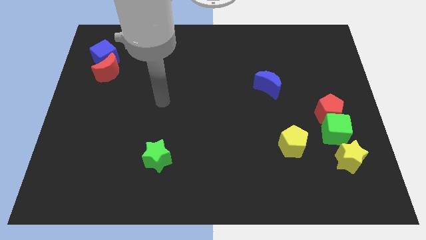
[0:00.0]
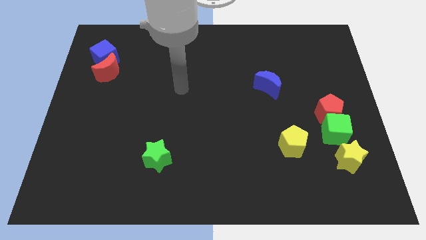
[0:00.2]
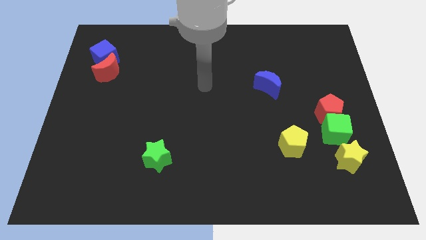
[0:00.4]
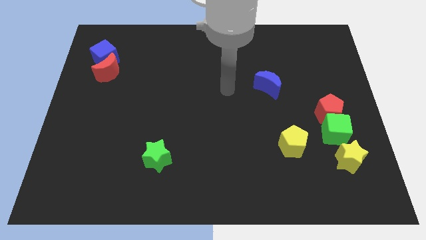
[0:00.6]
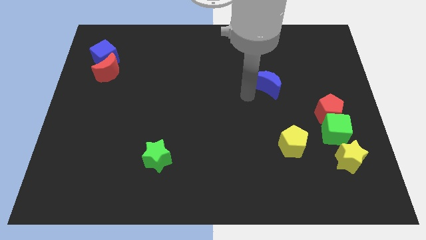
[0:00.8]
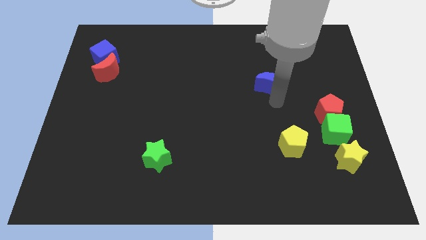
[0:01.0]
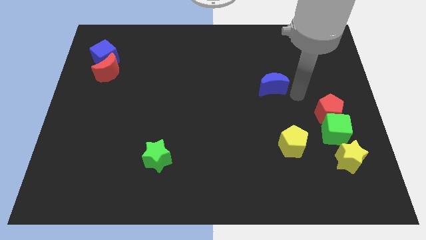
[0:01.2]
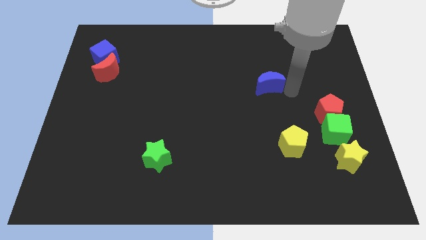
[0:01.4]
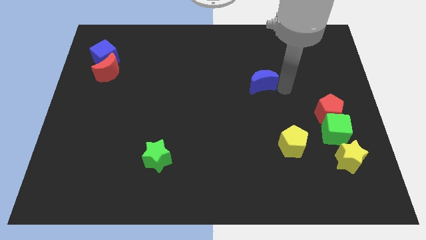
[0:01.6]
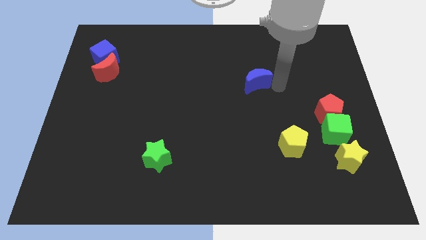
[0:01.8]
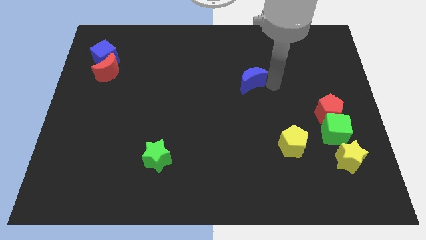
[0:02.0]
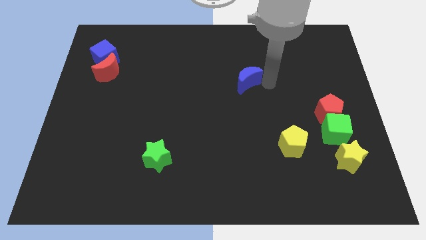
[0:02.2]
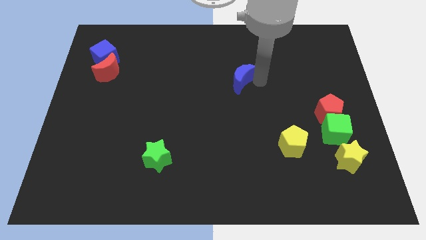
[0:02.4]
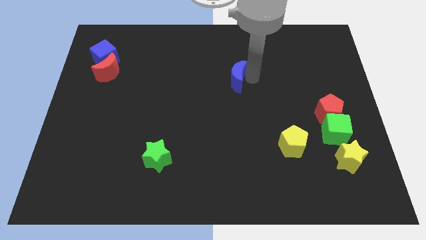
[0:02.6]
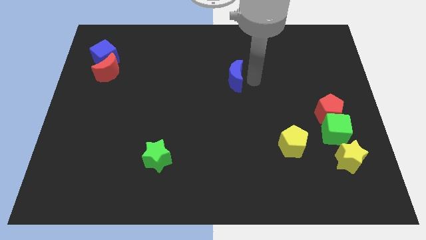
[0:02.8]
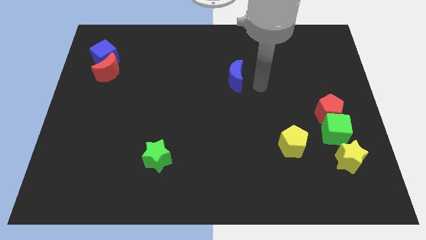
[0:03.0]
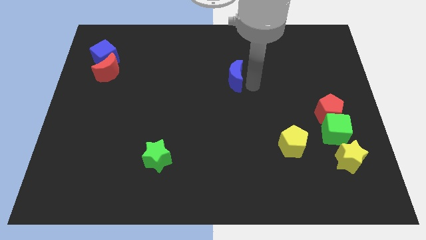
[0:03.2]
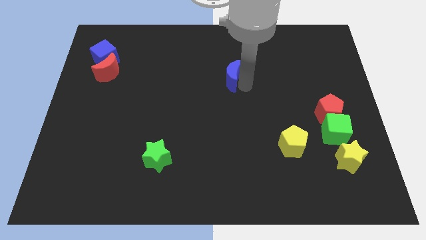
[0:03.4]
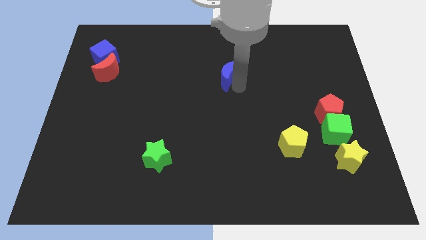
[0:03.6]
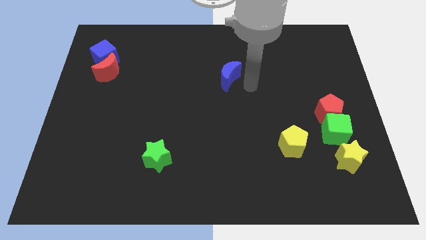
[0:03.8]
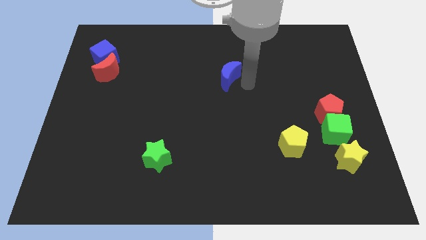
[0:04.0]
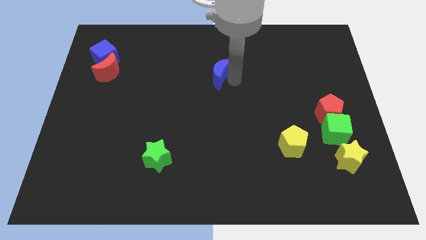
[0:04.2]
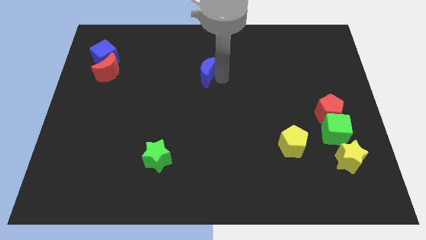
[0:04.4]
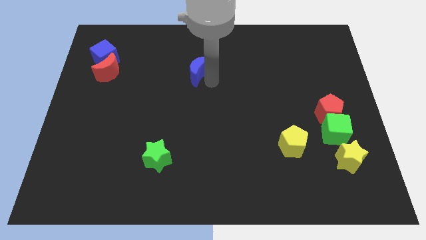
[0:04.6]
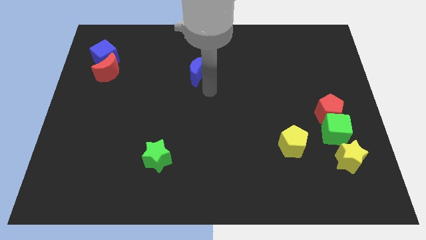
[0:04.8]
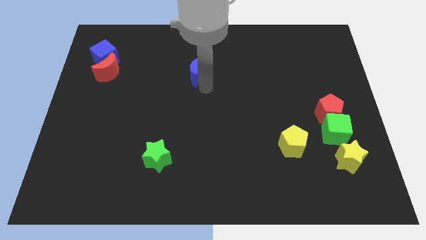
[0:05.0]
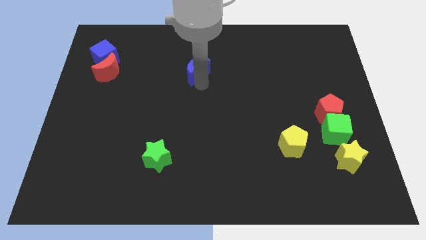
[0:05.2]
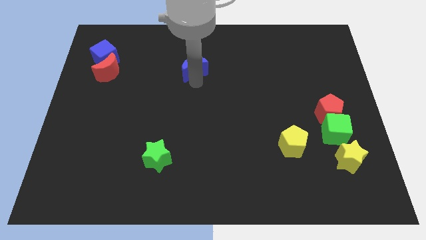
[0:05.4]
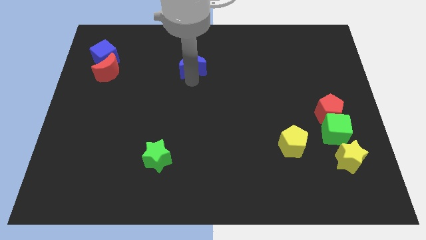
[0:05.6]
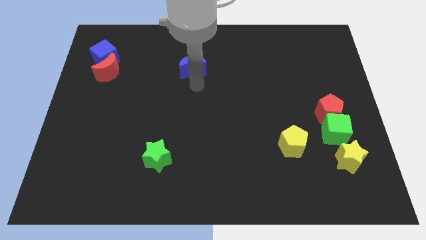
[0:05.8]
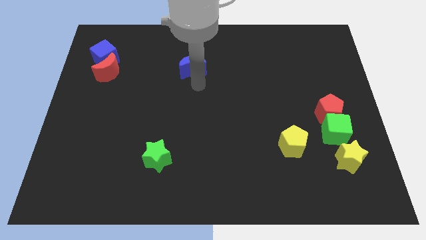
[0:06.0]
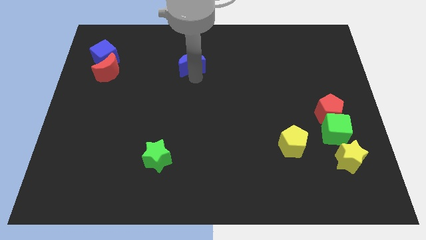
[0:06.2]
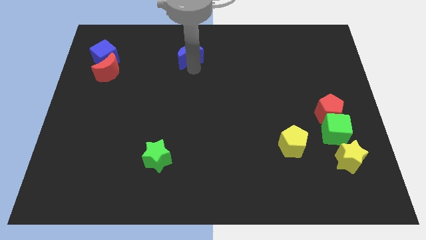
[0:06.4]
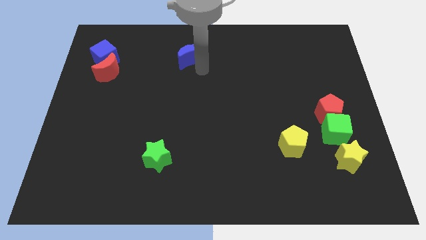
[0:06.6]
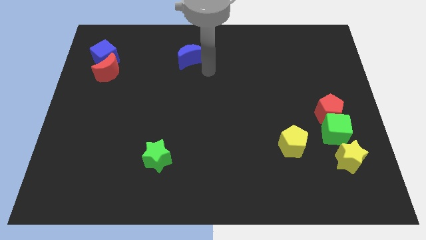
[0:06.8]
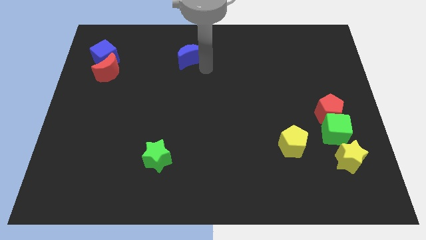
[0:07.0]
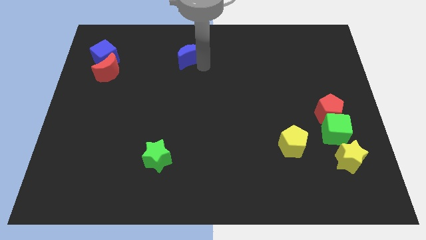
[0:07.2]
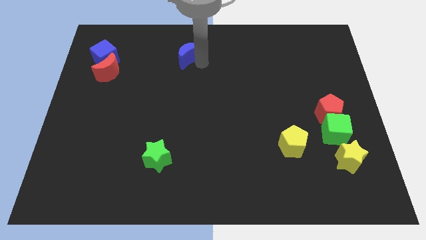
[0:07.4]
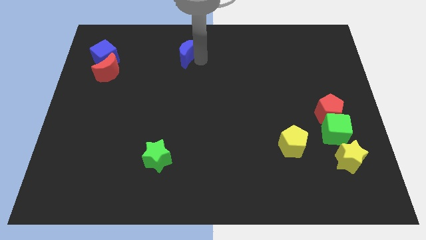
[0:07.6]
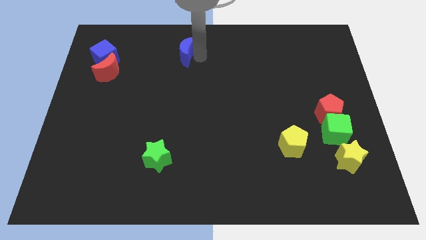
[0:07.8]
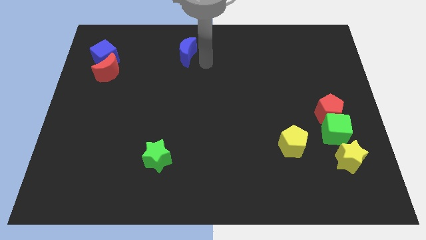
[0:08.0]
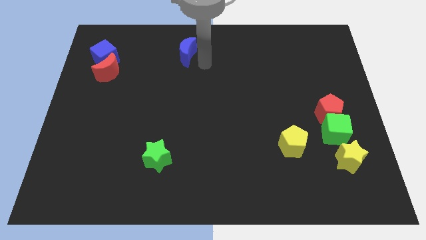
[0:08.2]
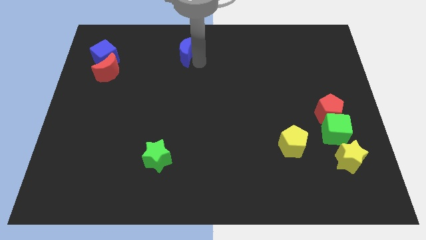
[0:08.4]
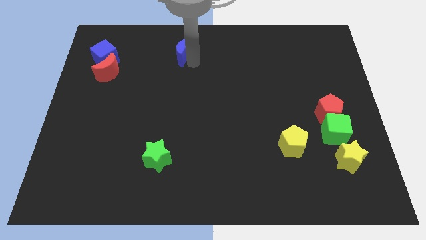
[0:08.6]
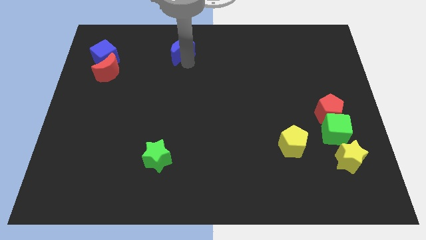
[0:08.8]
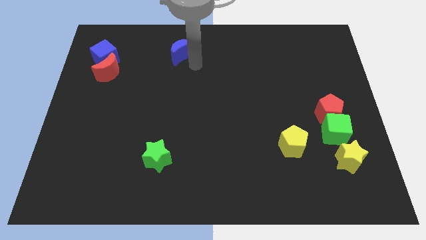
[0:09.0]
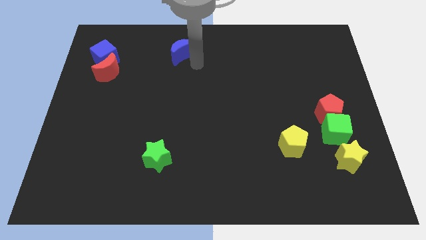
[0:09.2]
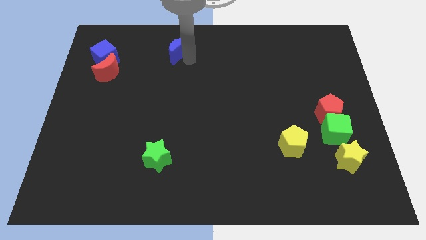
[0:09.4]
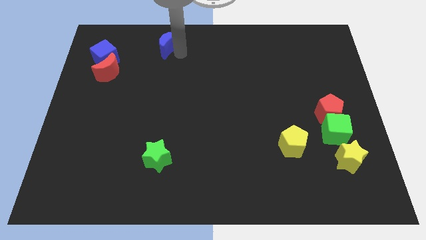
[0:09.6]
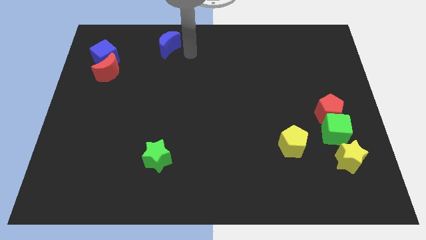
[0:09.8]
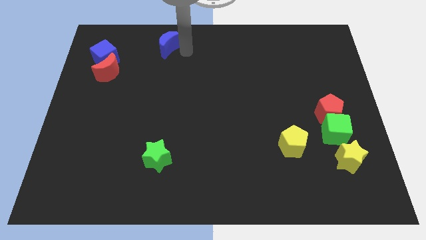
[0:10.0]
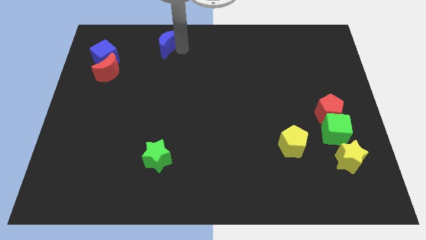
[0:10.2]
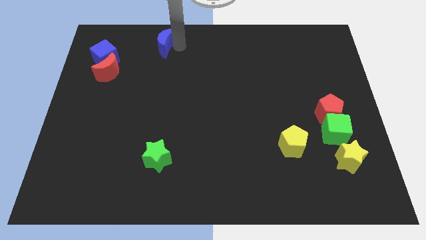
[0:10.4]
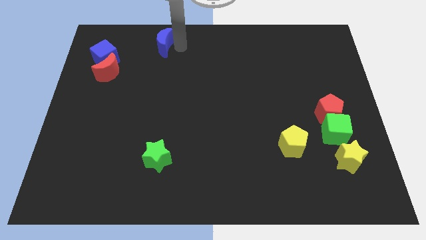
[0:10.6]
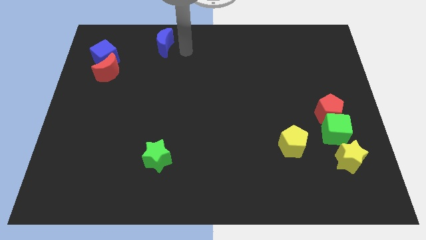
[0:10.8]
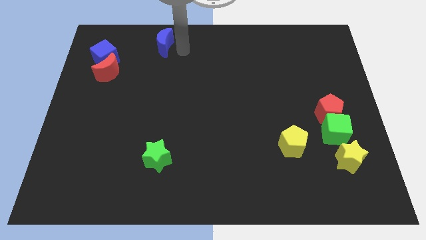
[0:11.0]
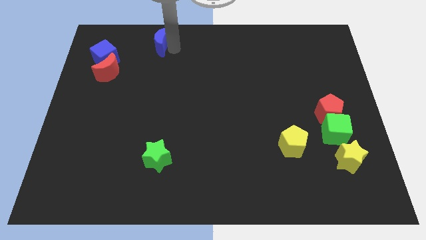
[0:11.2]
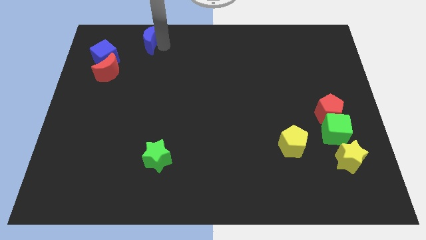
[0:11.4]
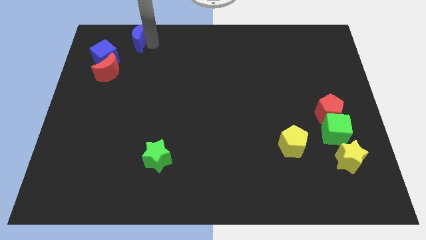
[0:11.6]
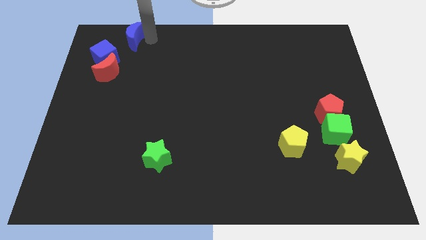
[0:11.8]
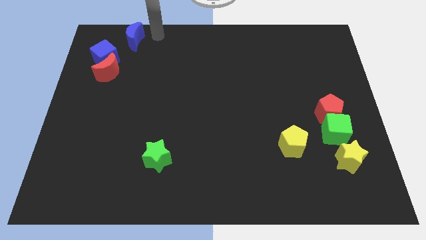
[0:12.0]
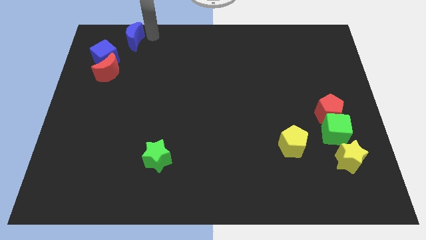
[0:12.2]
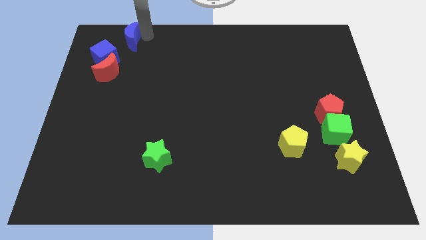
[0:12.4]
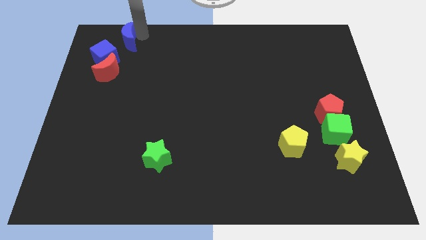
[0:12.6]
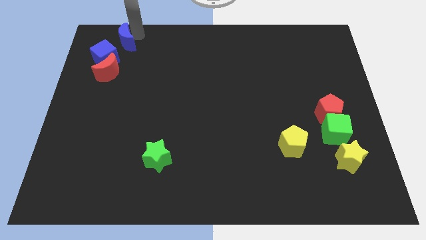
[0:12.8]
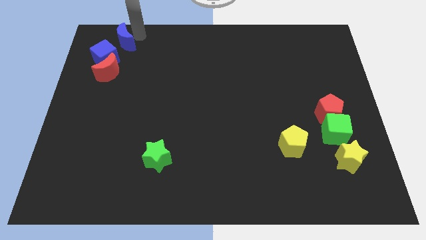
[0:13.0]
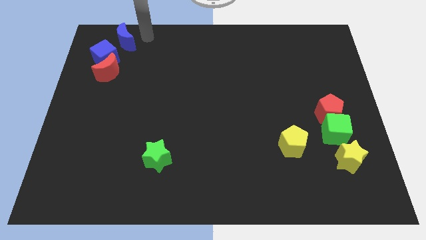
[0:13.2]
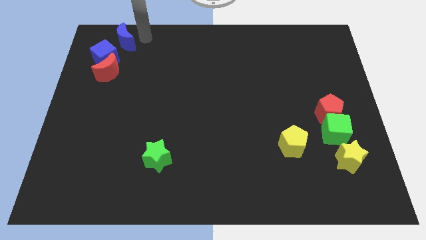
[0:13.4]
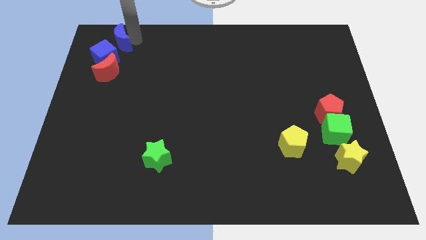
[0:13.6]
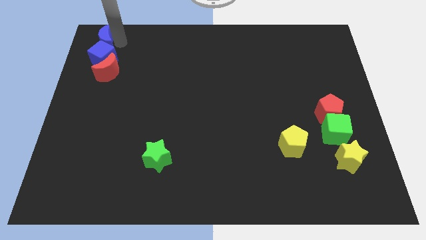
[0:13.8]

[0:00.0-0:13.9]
move the blue moon to the upper left corner
